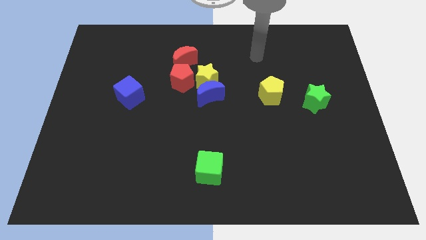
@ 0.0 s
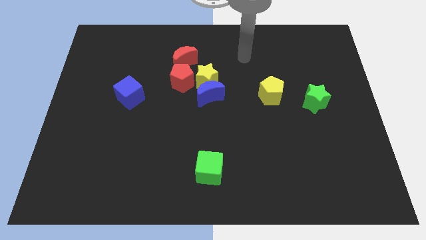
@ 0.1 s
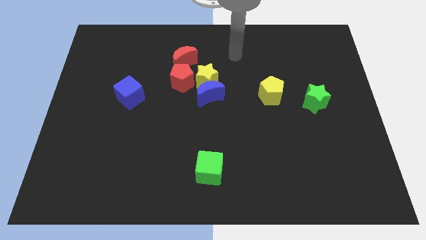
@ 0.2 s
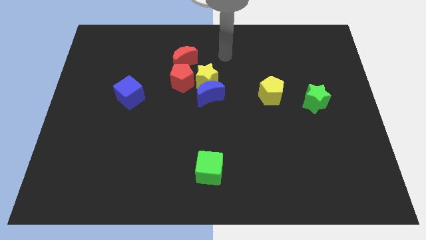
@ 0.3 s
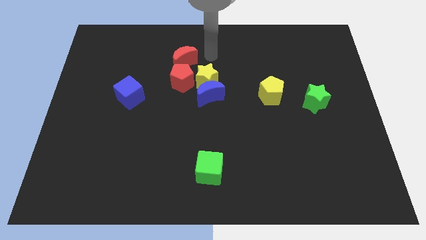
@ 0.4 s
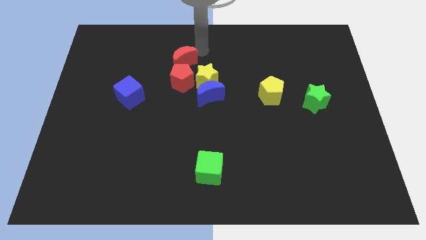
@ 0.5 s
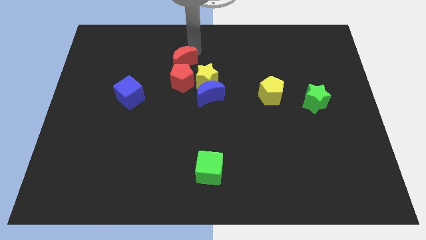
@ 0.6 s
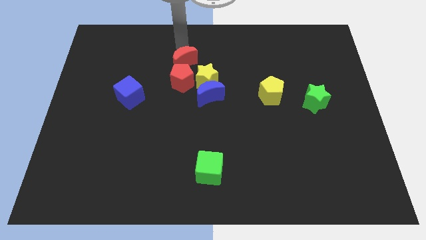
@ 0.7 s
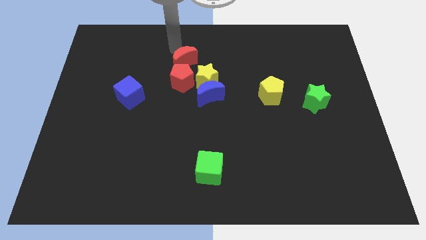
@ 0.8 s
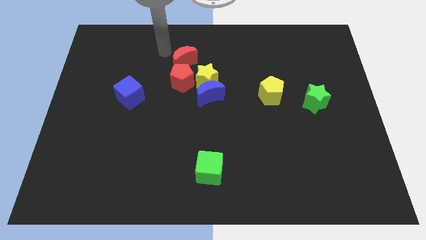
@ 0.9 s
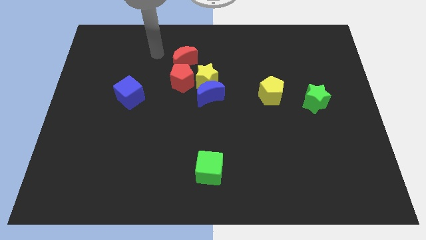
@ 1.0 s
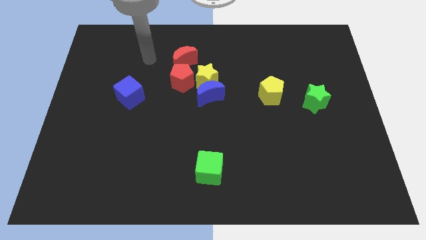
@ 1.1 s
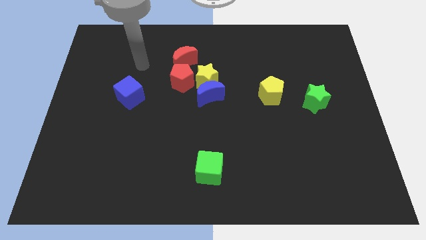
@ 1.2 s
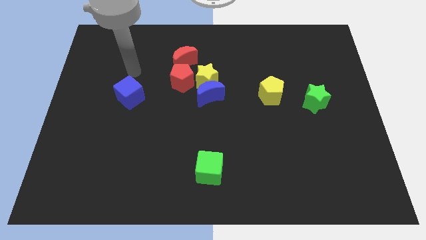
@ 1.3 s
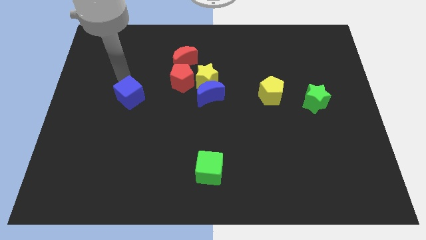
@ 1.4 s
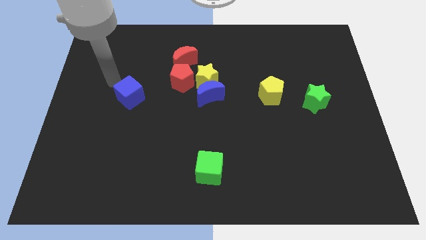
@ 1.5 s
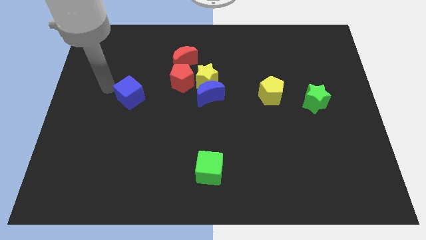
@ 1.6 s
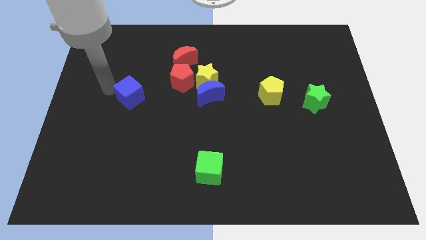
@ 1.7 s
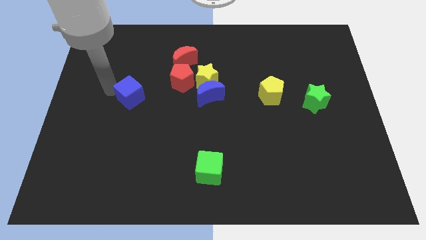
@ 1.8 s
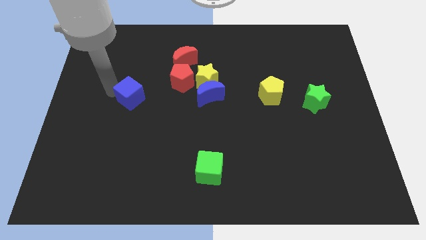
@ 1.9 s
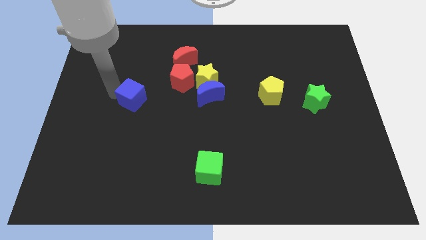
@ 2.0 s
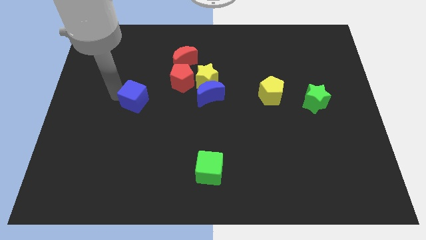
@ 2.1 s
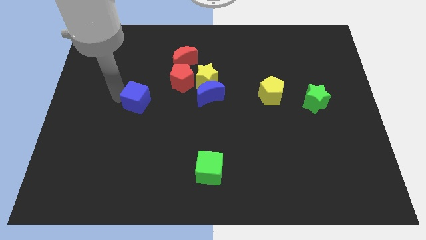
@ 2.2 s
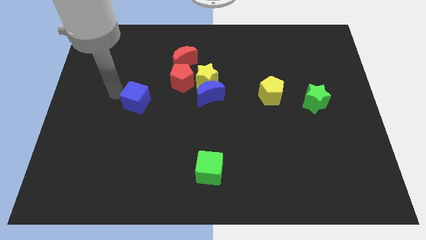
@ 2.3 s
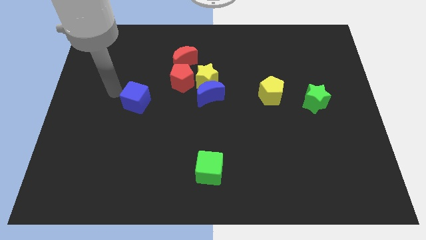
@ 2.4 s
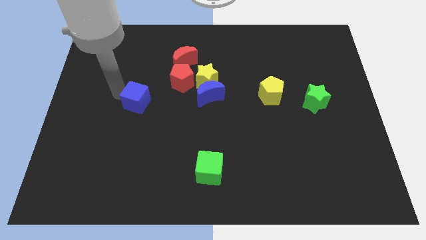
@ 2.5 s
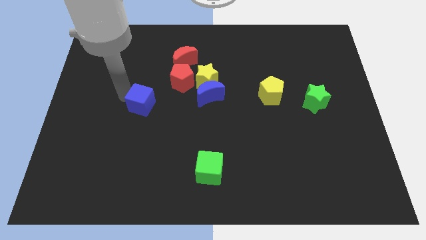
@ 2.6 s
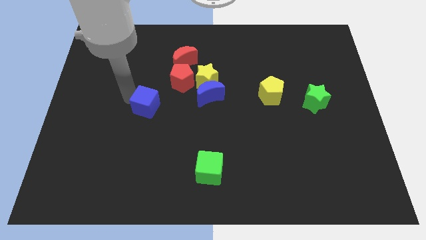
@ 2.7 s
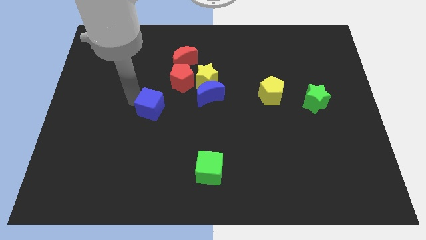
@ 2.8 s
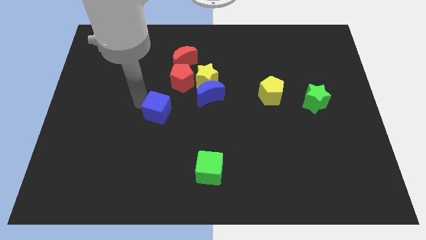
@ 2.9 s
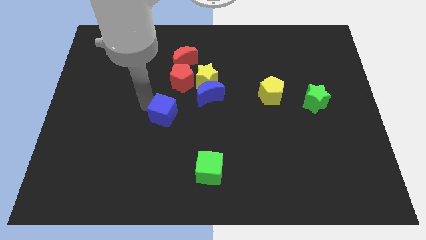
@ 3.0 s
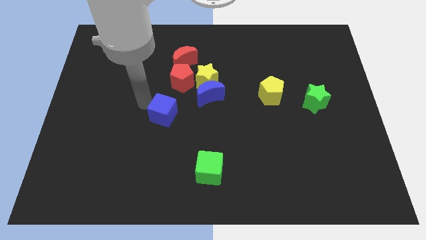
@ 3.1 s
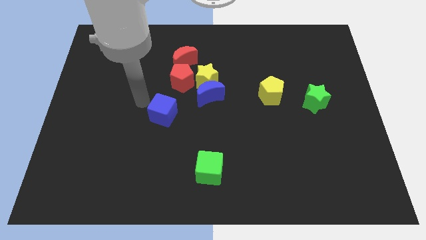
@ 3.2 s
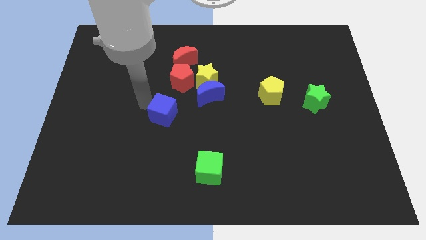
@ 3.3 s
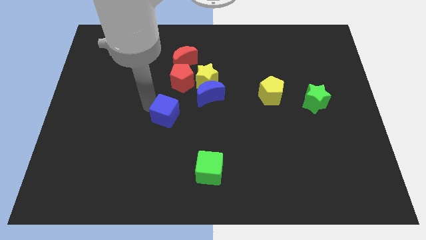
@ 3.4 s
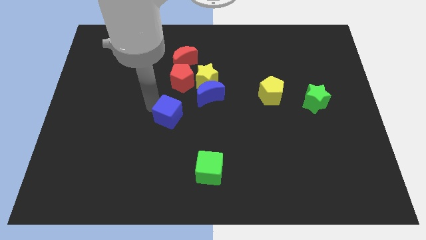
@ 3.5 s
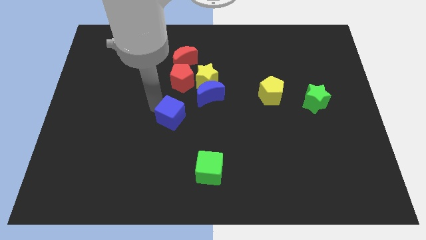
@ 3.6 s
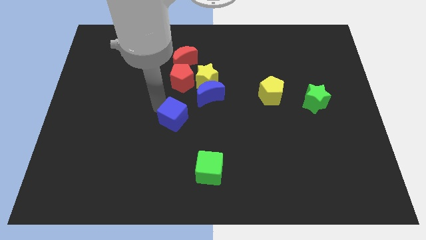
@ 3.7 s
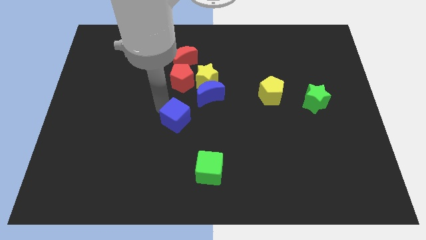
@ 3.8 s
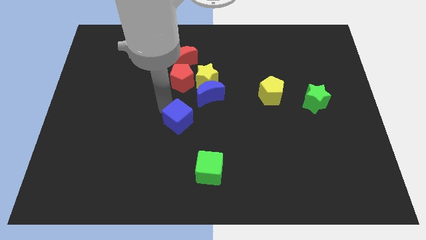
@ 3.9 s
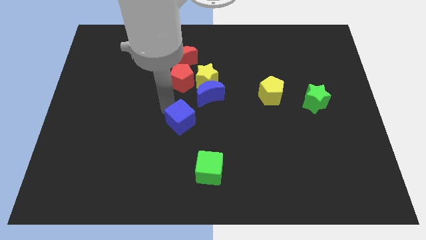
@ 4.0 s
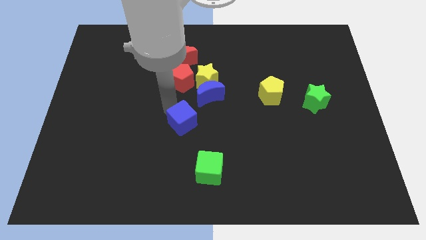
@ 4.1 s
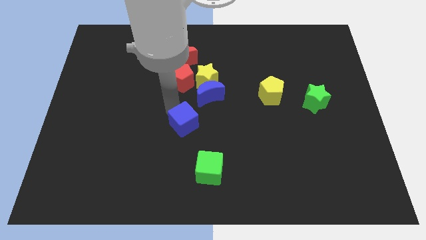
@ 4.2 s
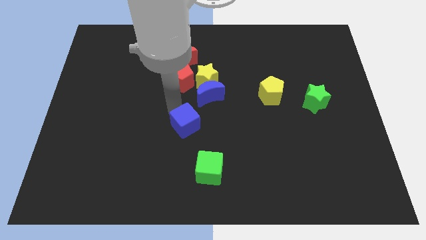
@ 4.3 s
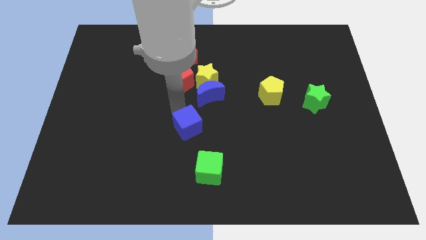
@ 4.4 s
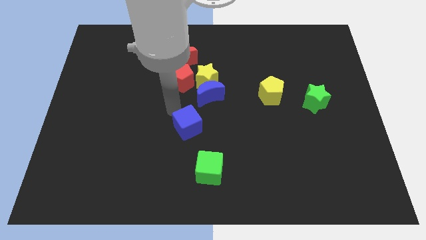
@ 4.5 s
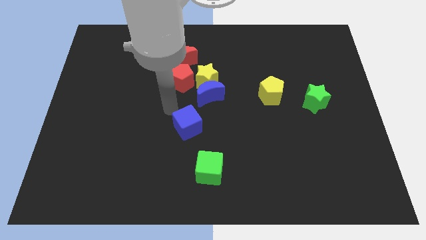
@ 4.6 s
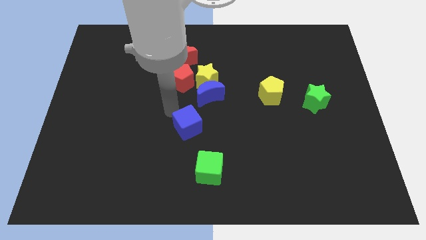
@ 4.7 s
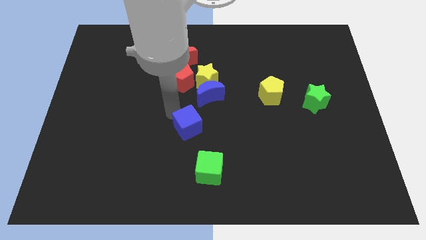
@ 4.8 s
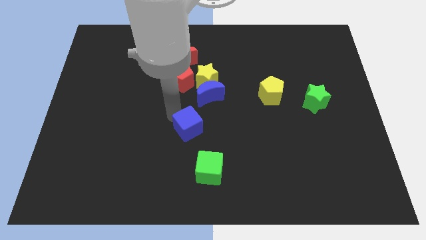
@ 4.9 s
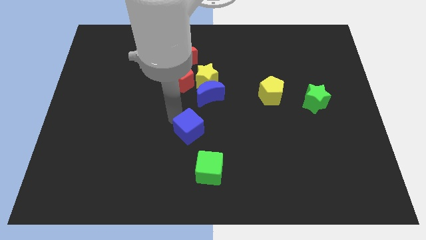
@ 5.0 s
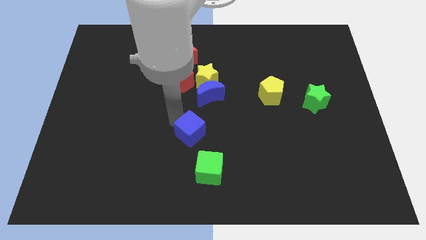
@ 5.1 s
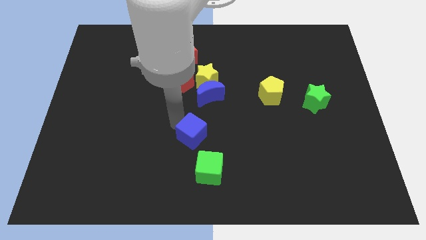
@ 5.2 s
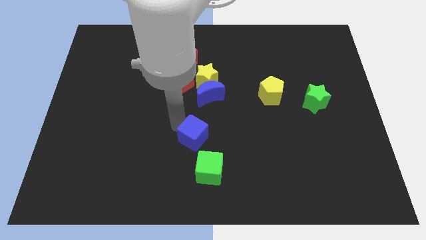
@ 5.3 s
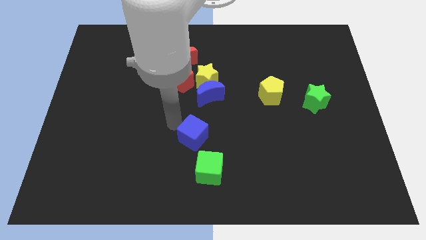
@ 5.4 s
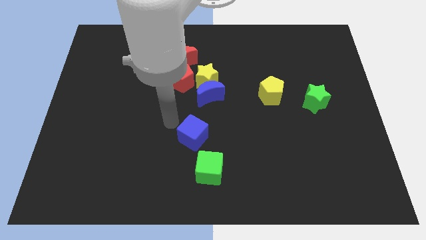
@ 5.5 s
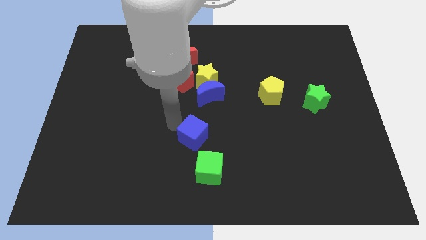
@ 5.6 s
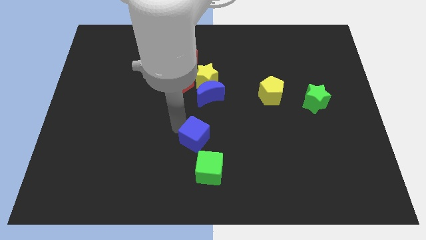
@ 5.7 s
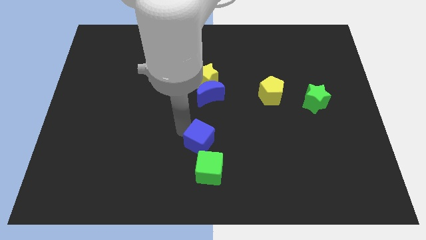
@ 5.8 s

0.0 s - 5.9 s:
push the blue cube downwards and then right

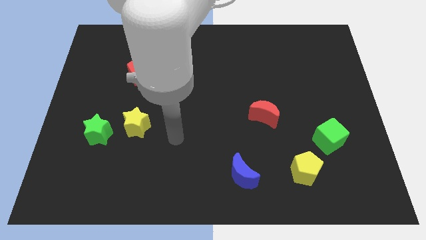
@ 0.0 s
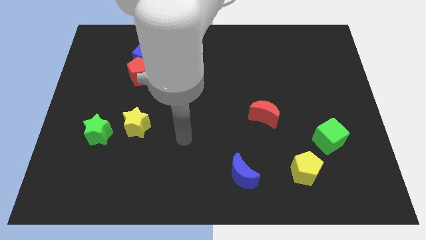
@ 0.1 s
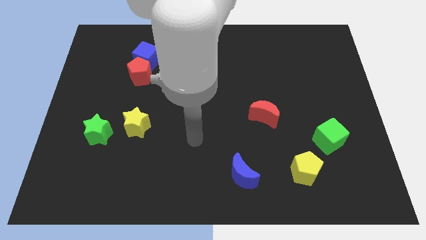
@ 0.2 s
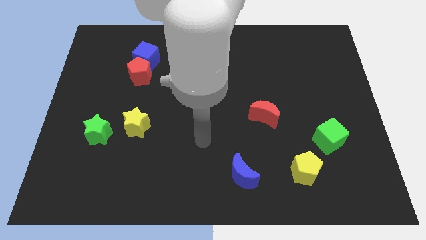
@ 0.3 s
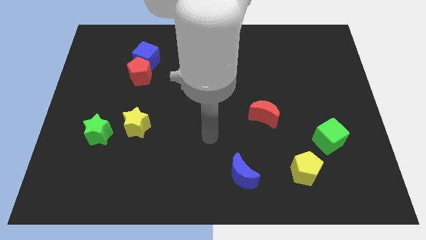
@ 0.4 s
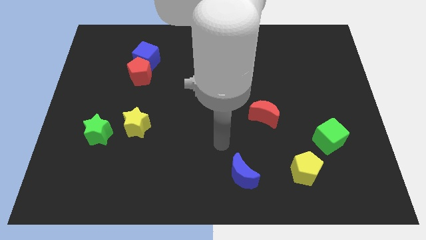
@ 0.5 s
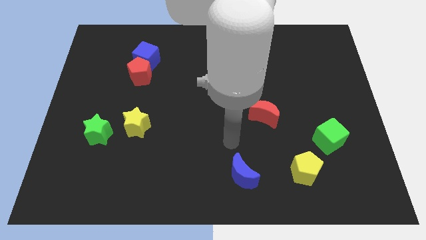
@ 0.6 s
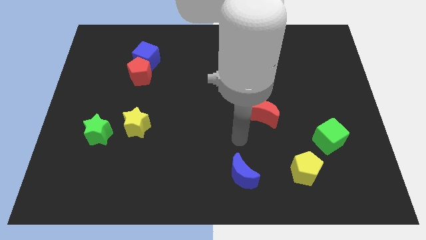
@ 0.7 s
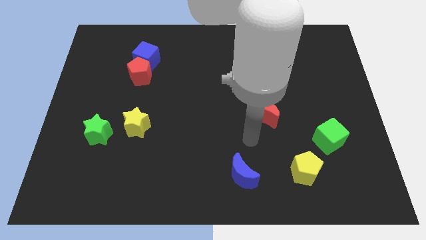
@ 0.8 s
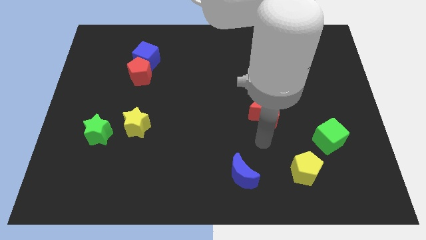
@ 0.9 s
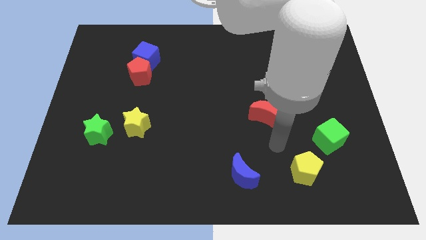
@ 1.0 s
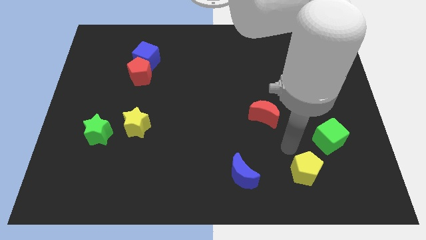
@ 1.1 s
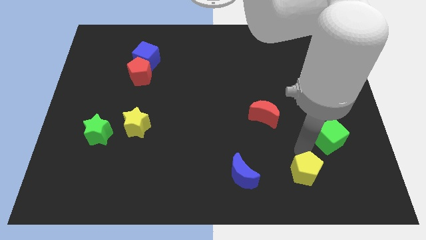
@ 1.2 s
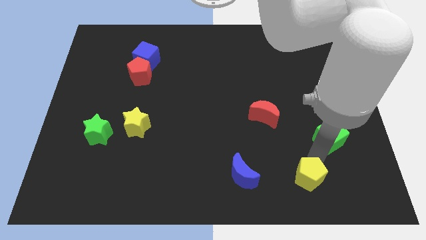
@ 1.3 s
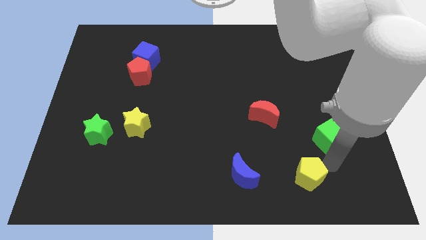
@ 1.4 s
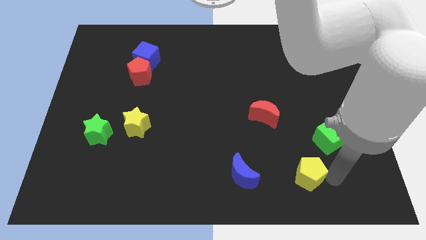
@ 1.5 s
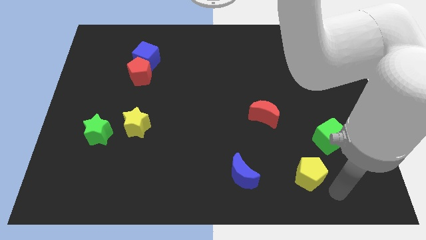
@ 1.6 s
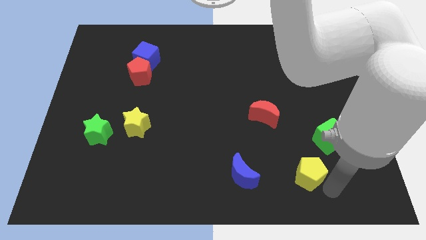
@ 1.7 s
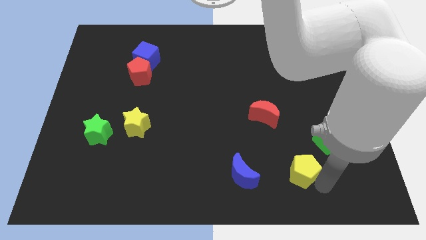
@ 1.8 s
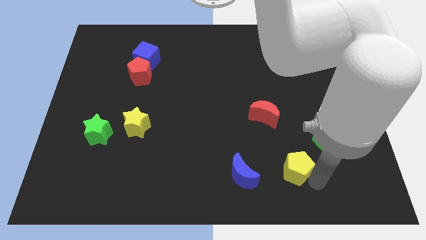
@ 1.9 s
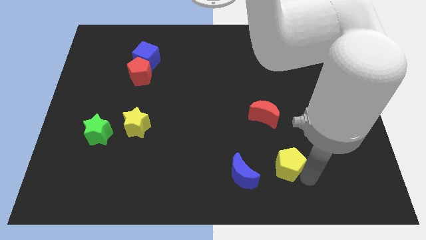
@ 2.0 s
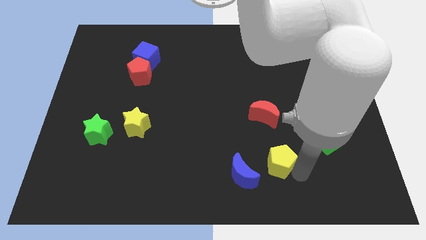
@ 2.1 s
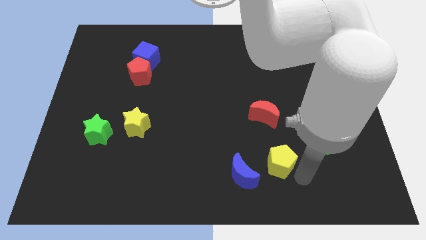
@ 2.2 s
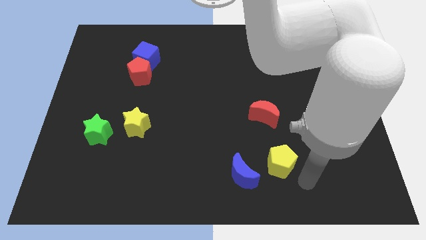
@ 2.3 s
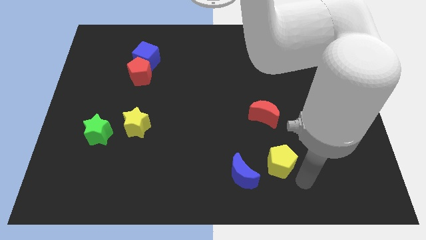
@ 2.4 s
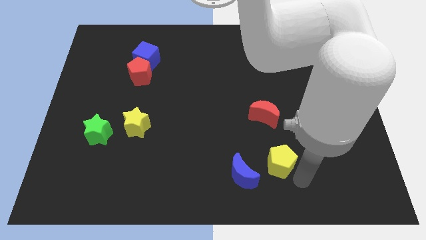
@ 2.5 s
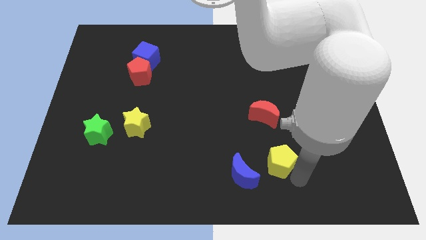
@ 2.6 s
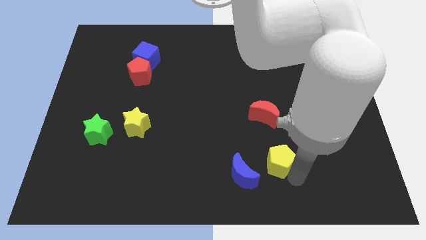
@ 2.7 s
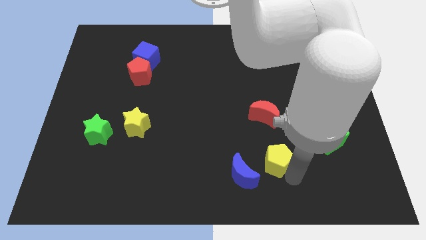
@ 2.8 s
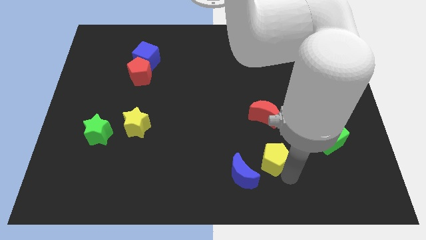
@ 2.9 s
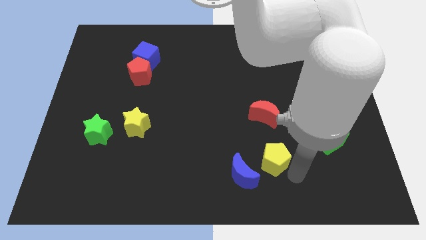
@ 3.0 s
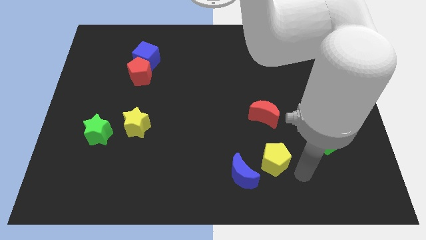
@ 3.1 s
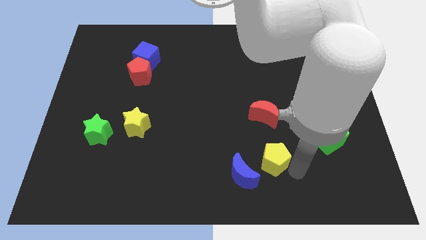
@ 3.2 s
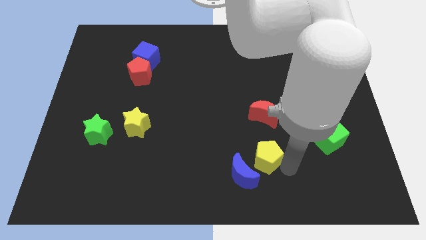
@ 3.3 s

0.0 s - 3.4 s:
move the yellow pentagon to the left a little
